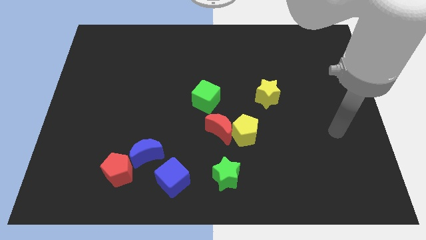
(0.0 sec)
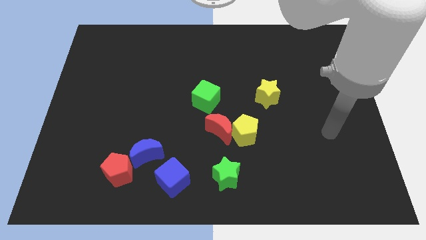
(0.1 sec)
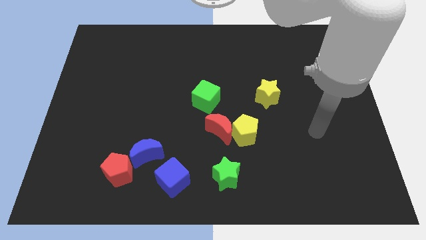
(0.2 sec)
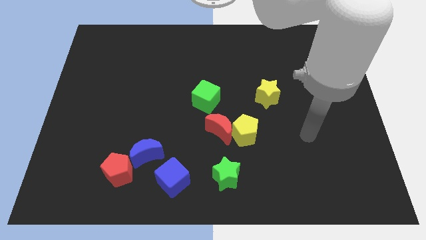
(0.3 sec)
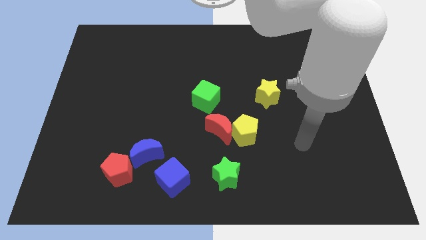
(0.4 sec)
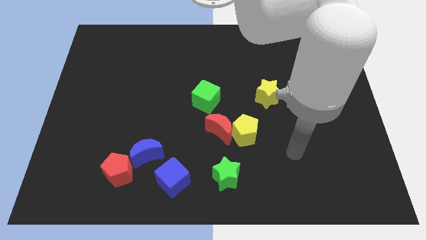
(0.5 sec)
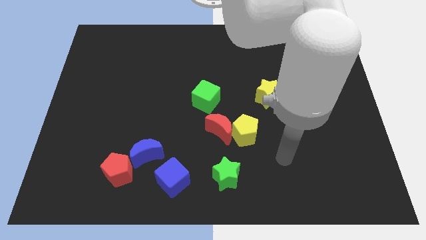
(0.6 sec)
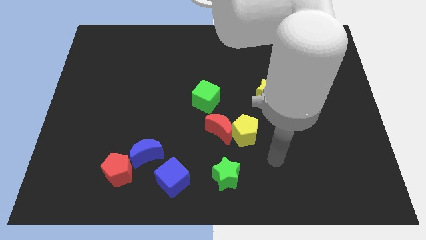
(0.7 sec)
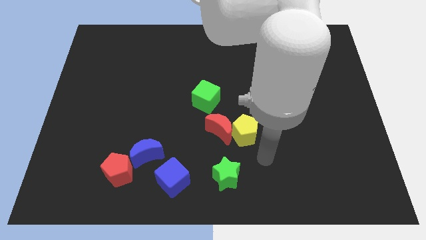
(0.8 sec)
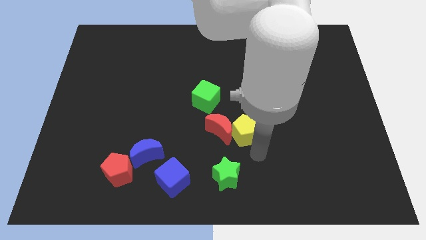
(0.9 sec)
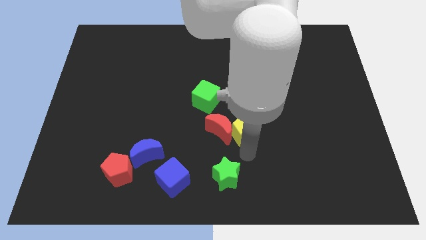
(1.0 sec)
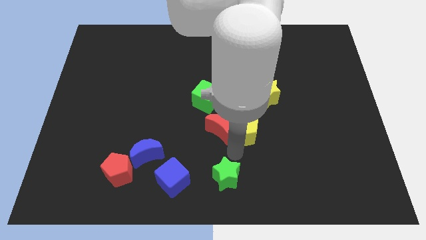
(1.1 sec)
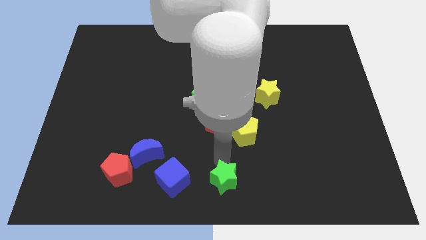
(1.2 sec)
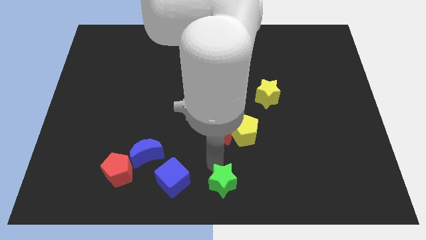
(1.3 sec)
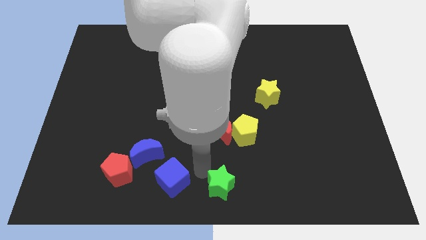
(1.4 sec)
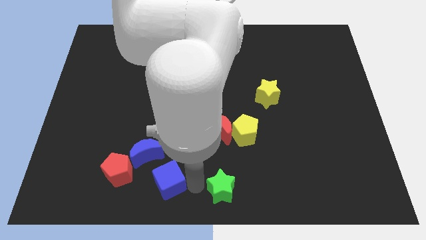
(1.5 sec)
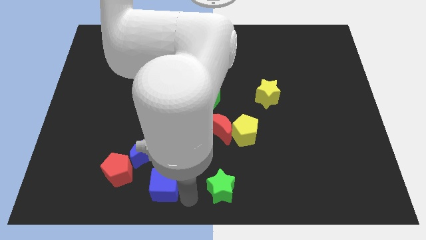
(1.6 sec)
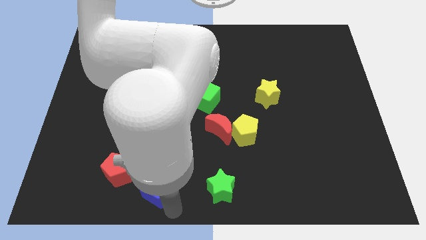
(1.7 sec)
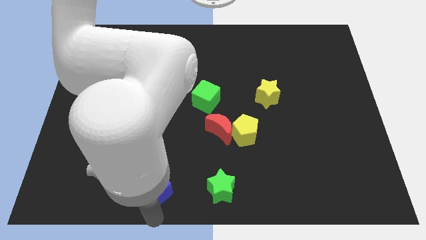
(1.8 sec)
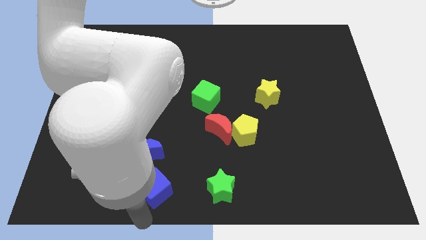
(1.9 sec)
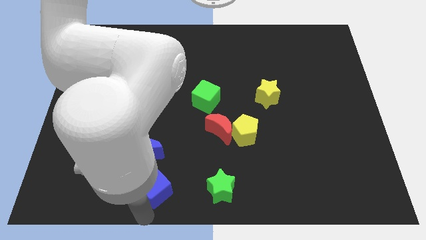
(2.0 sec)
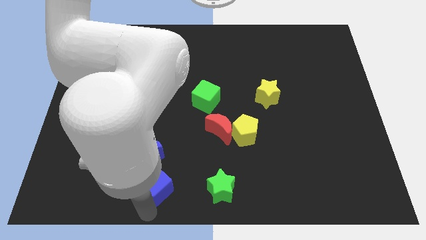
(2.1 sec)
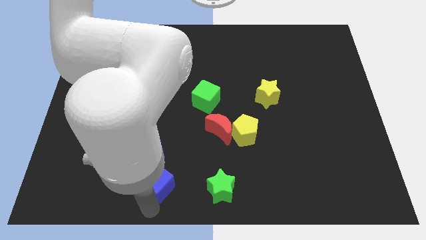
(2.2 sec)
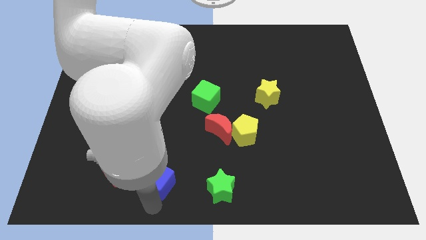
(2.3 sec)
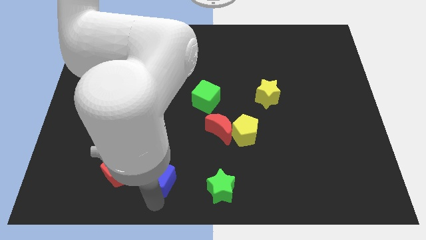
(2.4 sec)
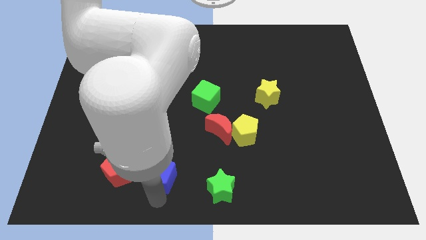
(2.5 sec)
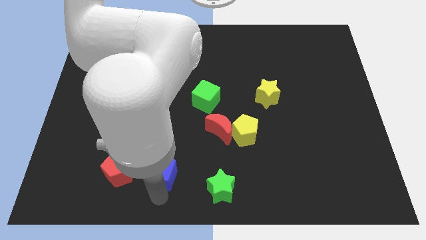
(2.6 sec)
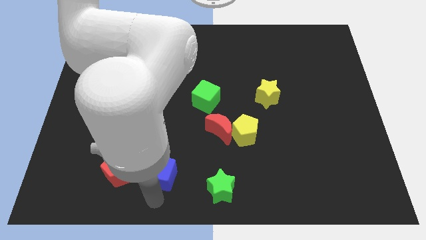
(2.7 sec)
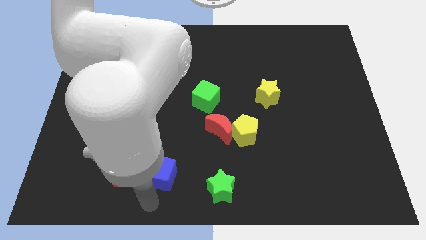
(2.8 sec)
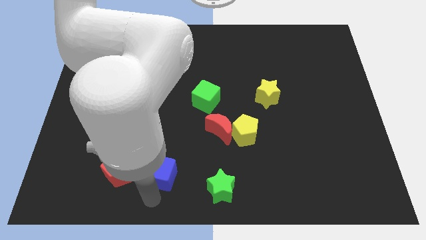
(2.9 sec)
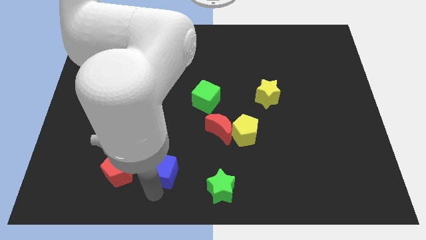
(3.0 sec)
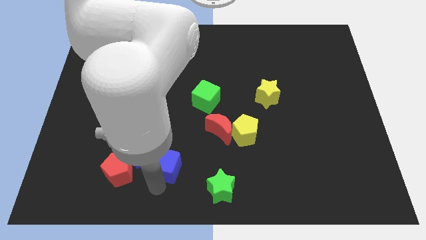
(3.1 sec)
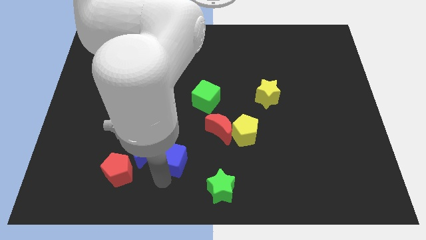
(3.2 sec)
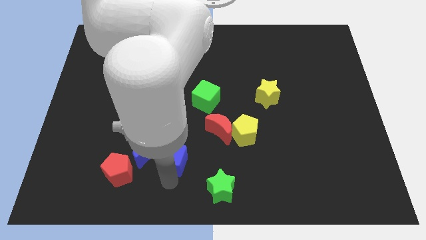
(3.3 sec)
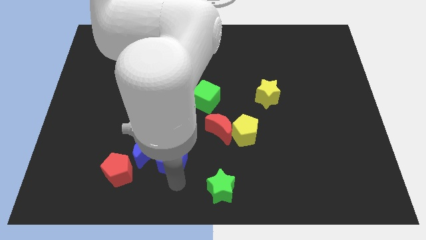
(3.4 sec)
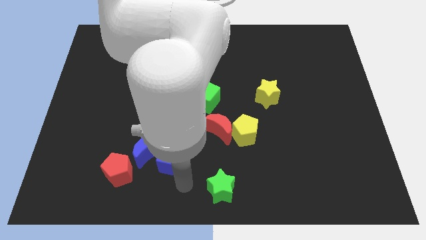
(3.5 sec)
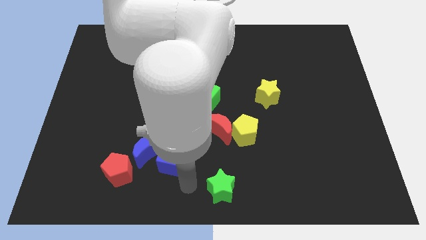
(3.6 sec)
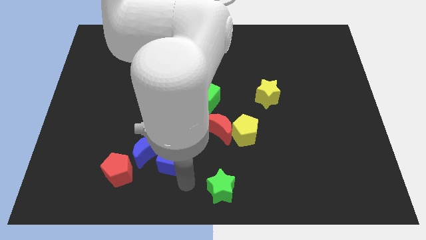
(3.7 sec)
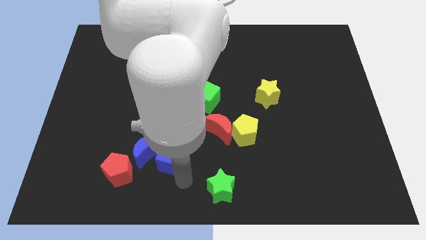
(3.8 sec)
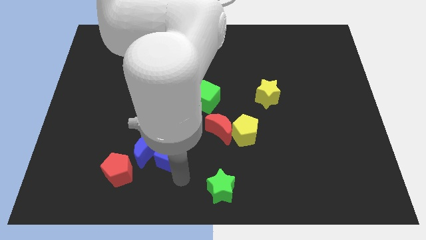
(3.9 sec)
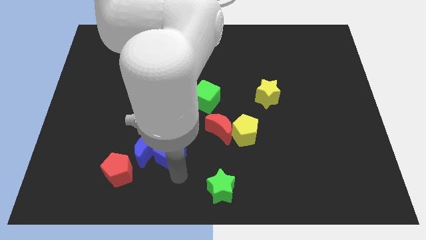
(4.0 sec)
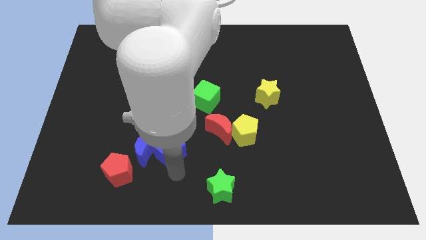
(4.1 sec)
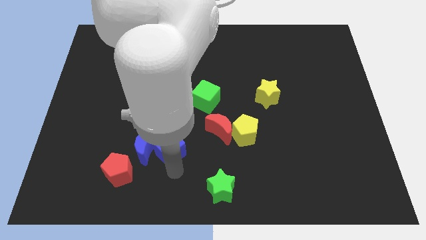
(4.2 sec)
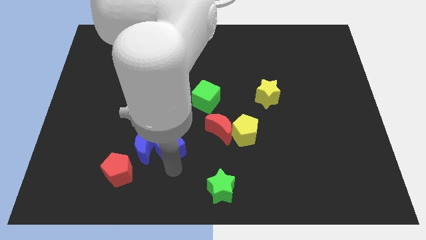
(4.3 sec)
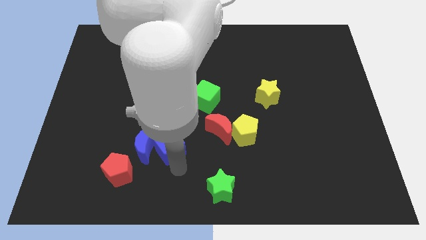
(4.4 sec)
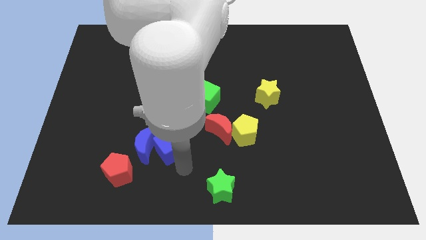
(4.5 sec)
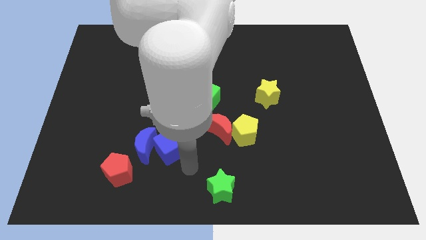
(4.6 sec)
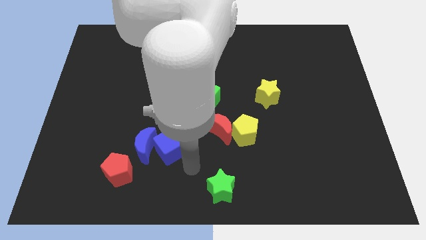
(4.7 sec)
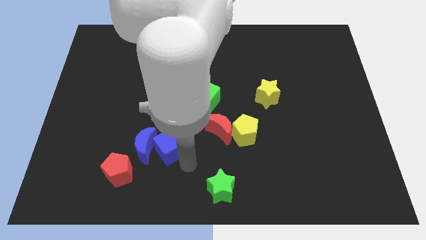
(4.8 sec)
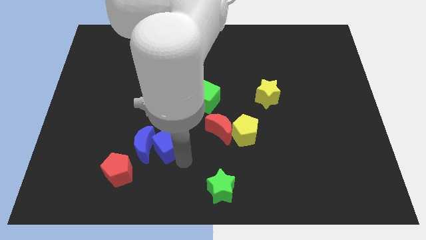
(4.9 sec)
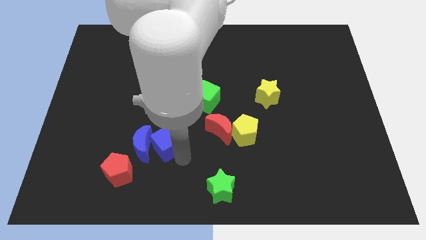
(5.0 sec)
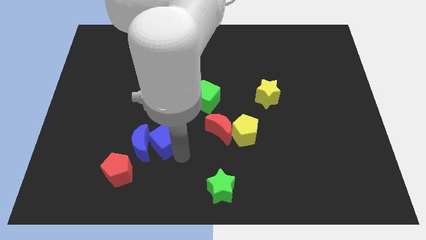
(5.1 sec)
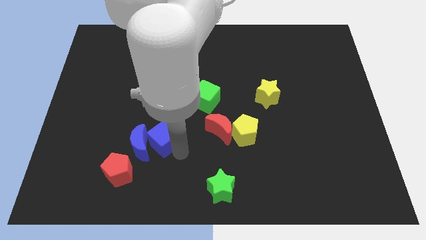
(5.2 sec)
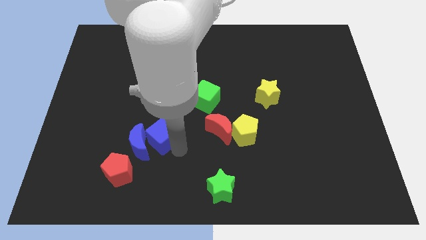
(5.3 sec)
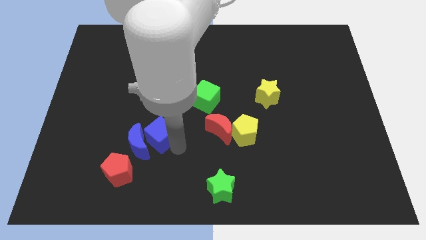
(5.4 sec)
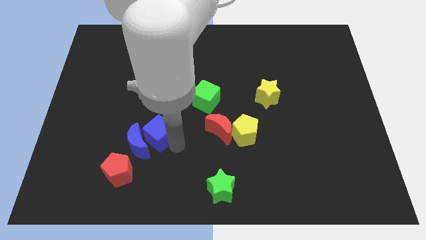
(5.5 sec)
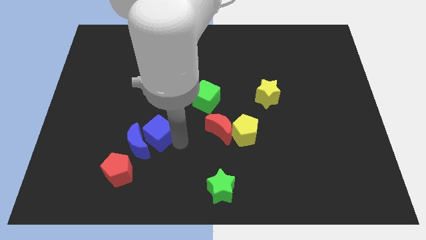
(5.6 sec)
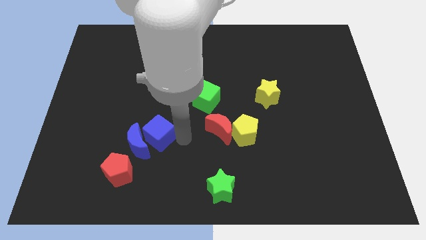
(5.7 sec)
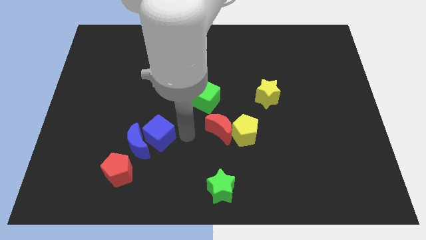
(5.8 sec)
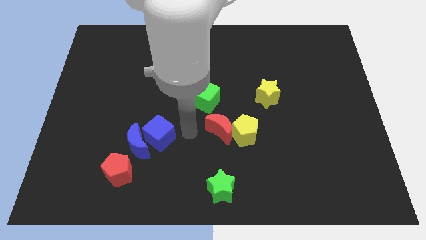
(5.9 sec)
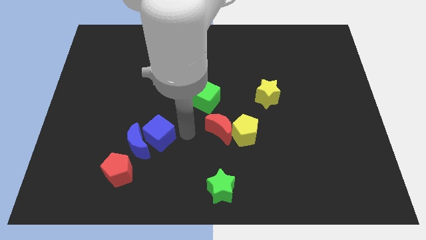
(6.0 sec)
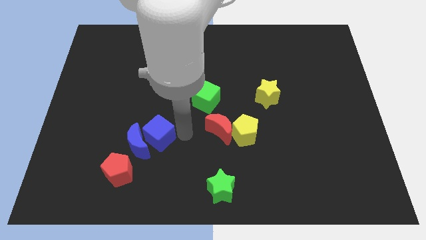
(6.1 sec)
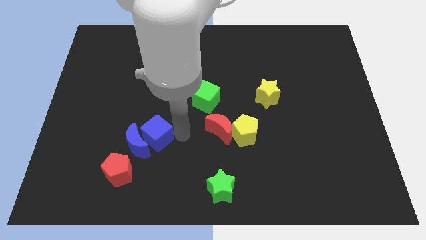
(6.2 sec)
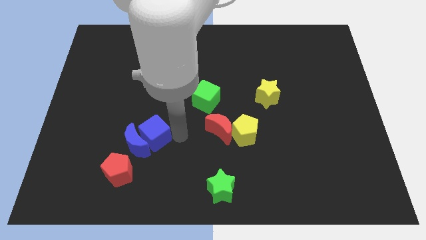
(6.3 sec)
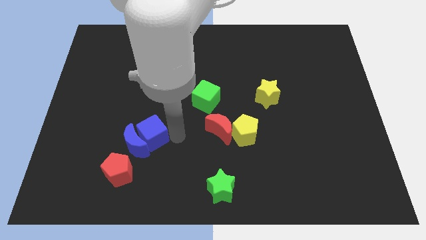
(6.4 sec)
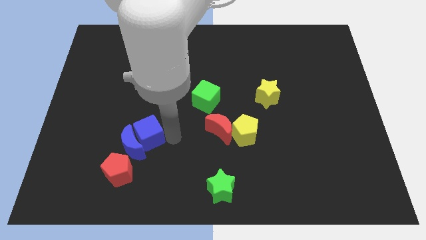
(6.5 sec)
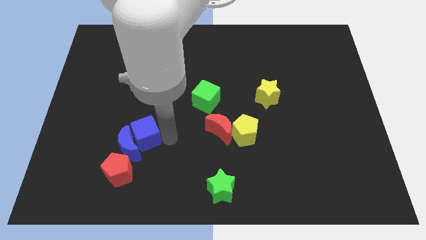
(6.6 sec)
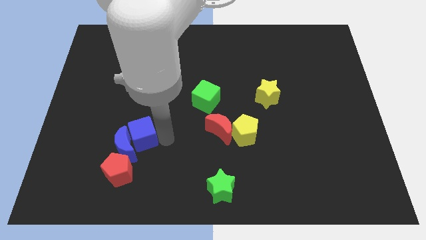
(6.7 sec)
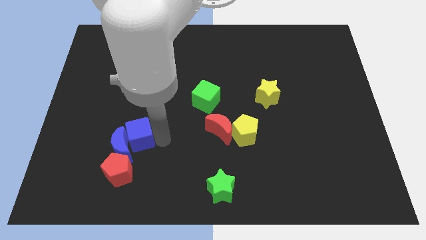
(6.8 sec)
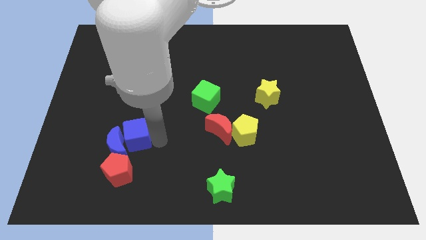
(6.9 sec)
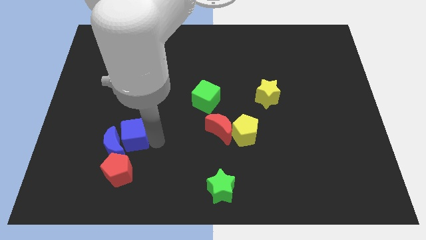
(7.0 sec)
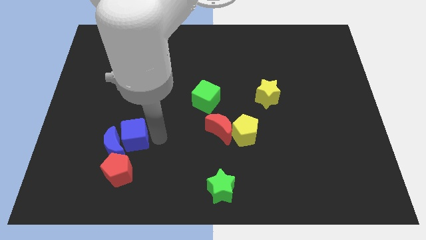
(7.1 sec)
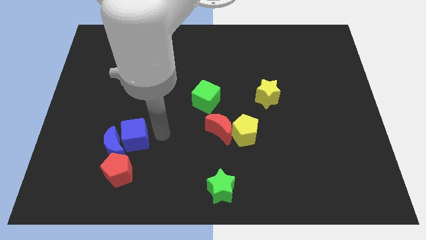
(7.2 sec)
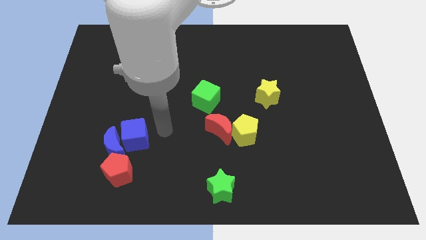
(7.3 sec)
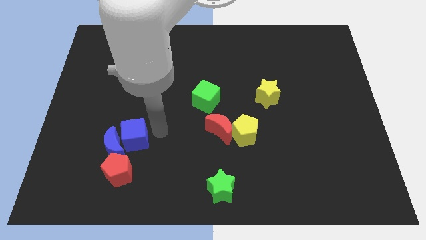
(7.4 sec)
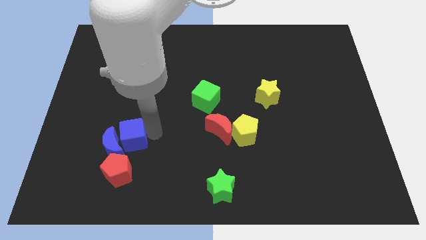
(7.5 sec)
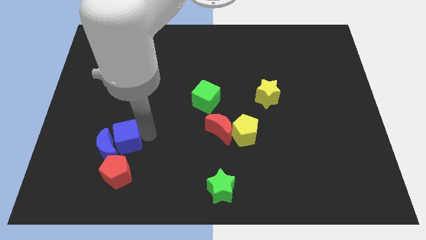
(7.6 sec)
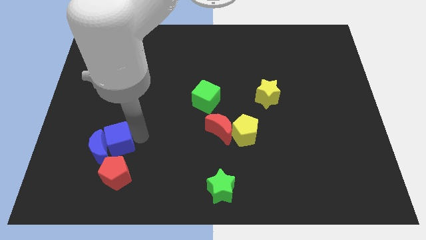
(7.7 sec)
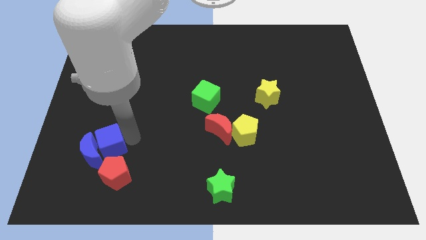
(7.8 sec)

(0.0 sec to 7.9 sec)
move the blue cube to the top left side of the red pentagon
